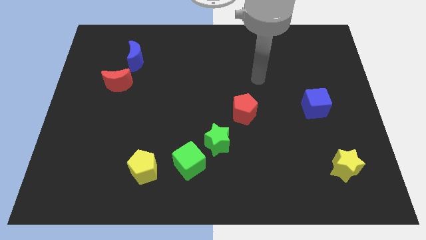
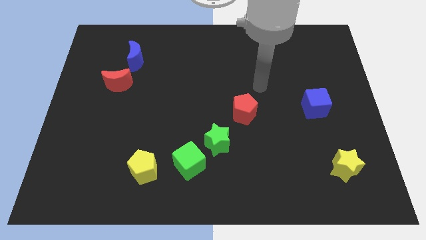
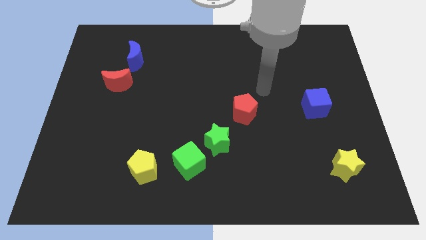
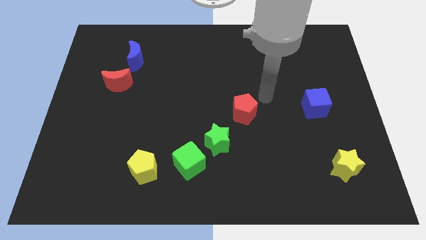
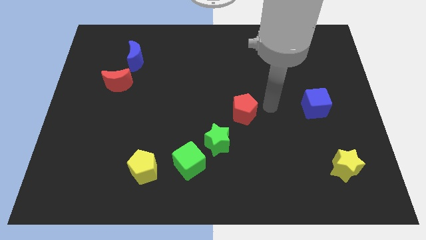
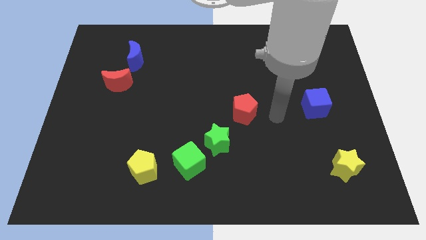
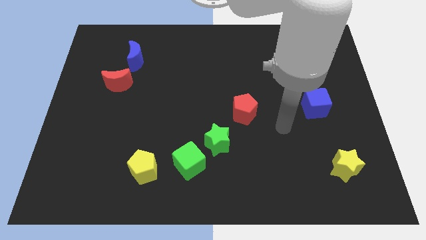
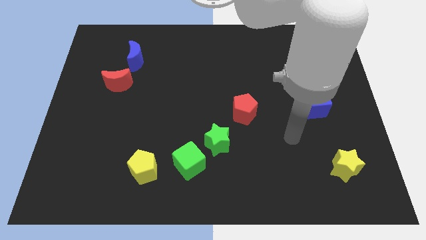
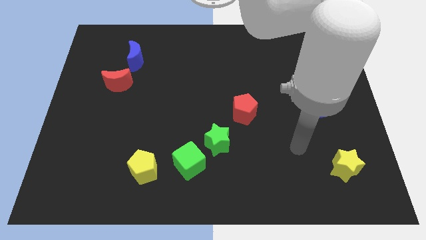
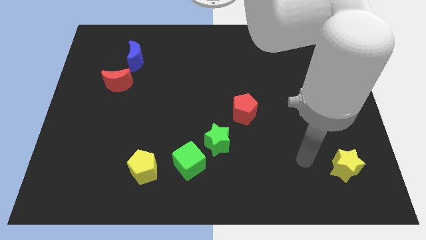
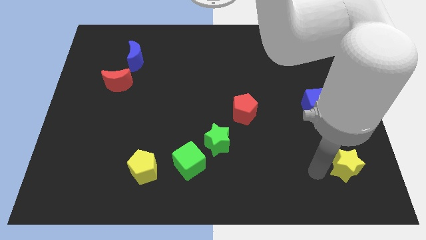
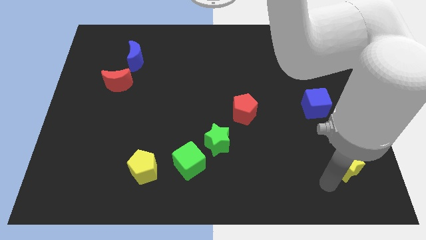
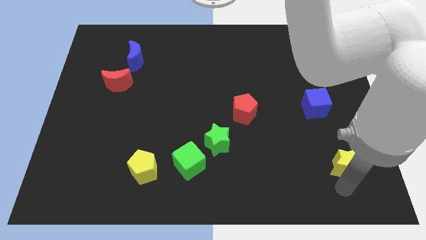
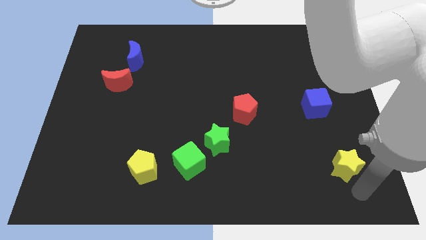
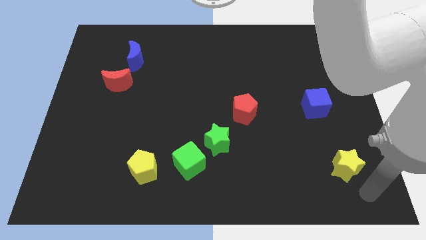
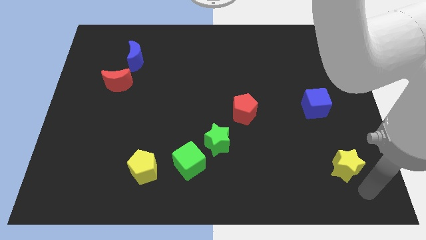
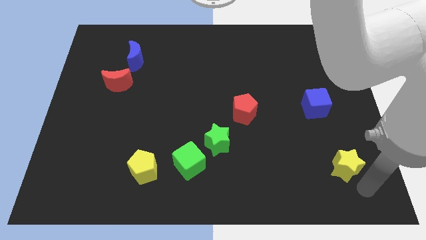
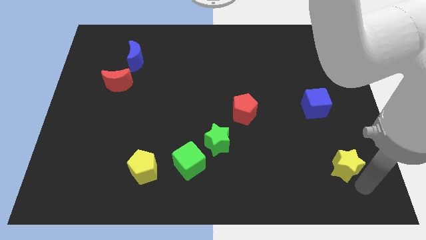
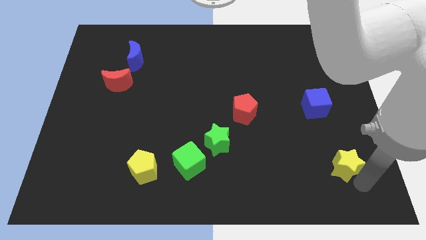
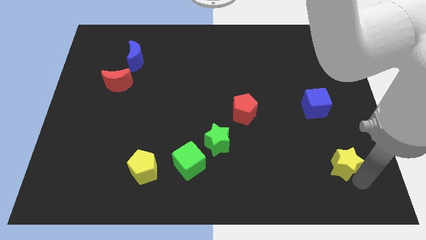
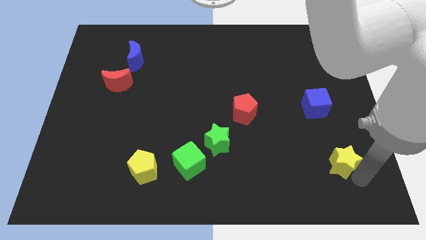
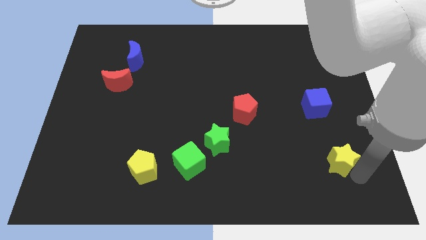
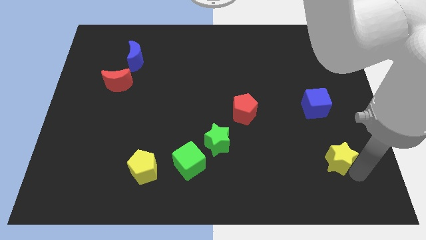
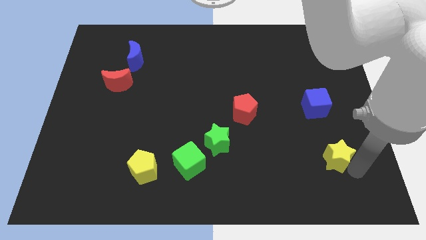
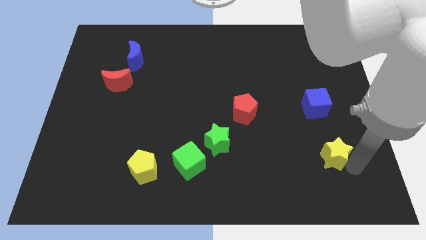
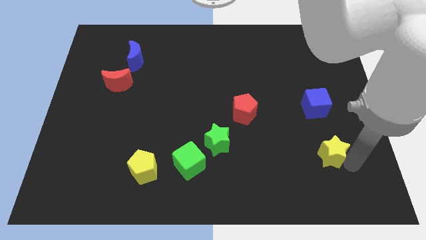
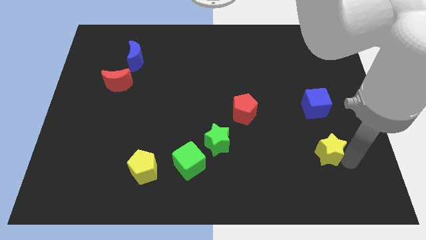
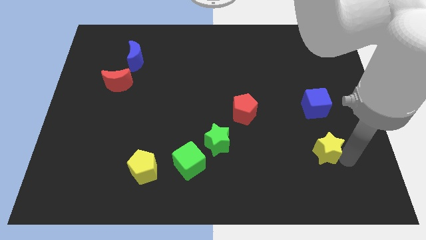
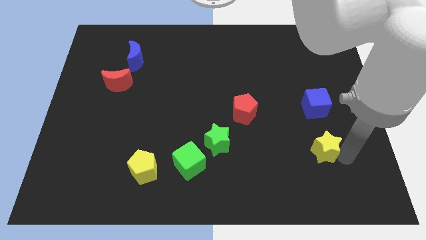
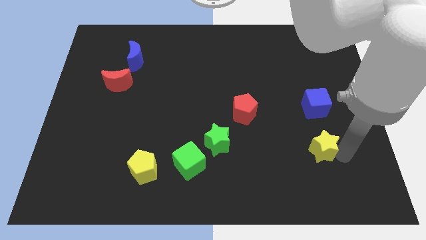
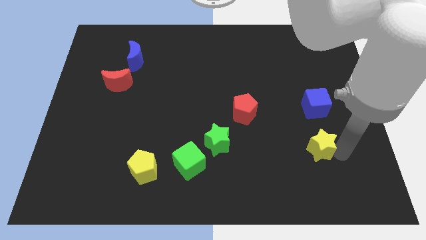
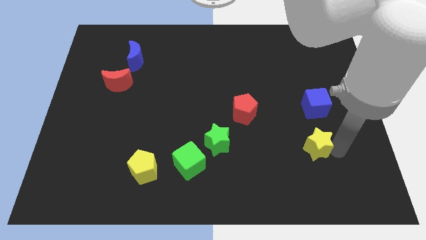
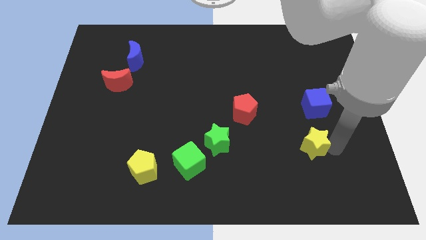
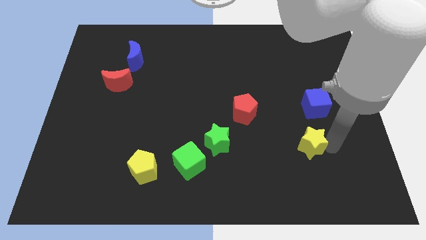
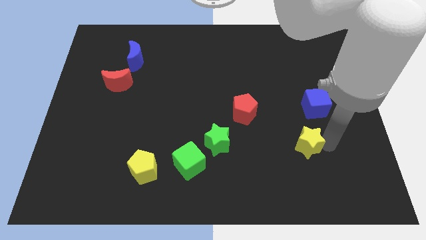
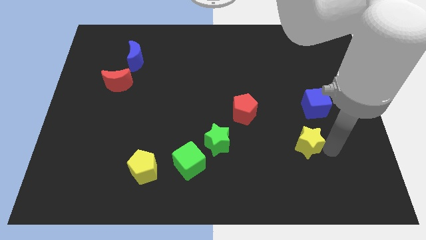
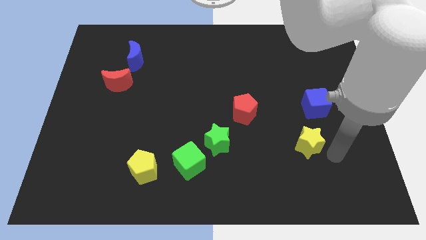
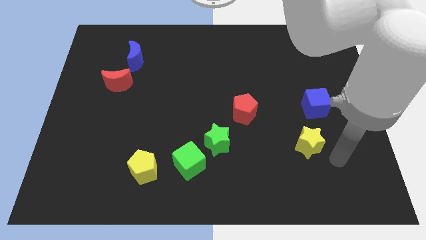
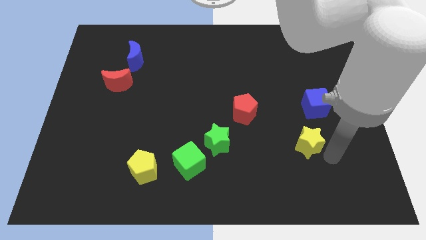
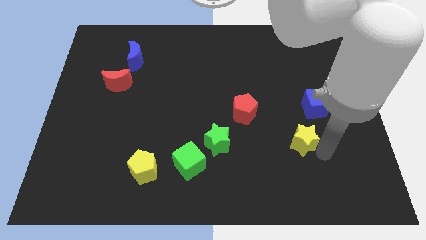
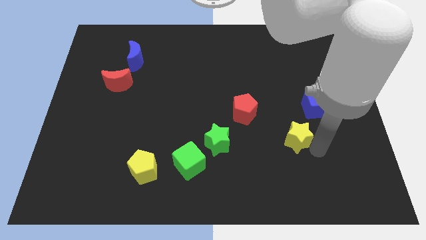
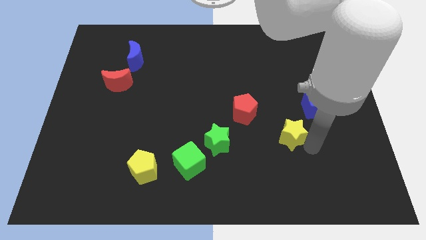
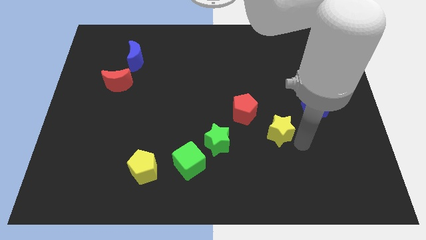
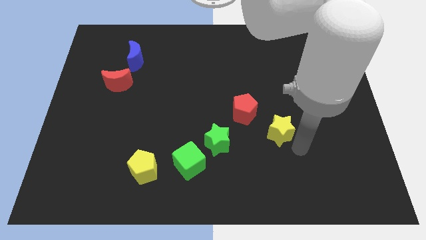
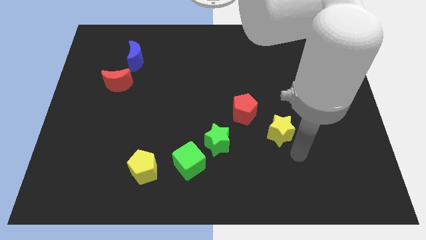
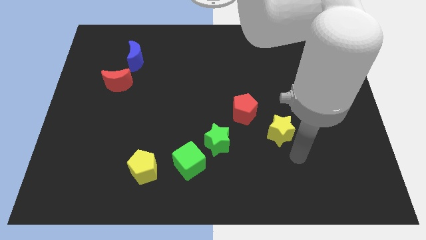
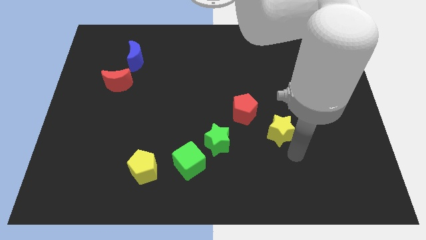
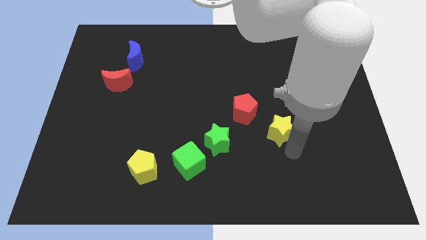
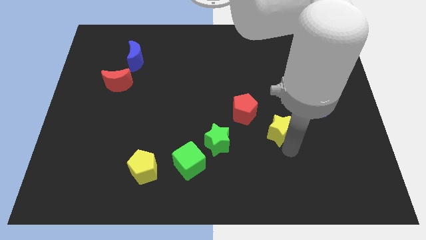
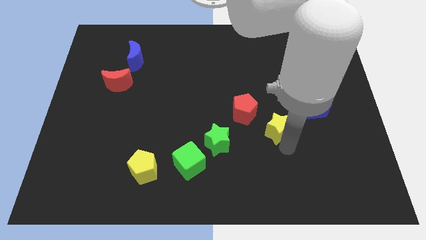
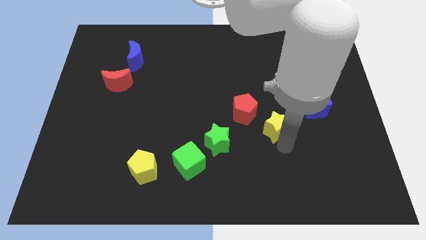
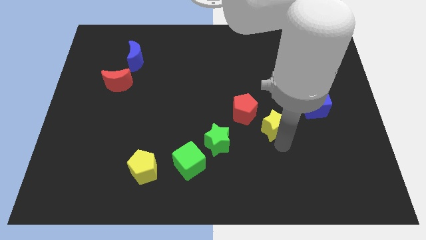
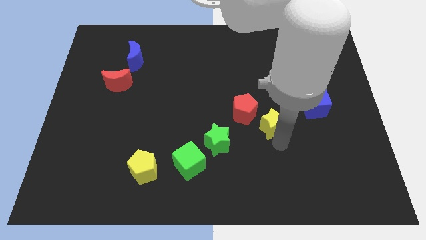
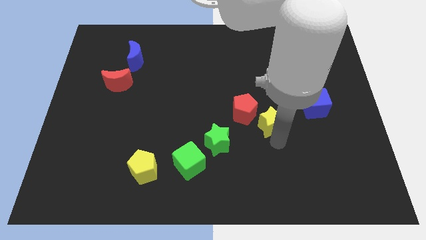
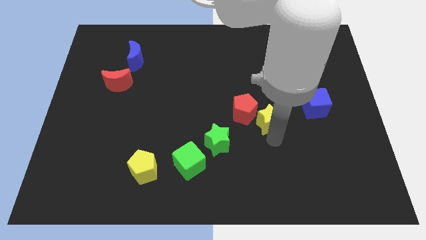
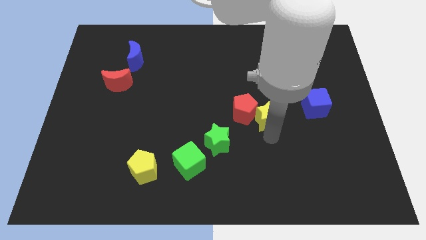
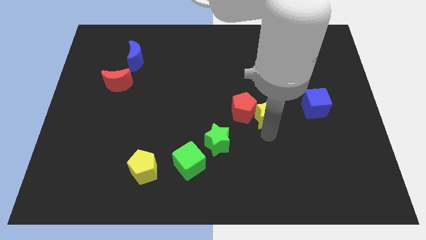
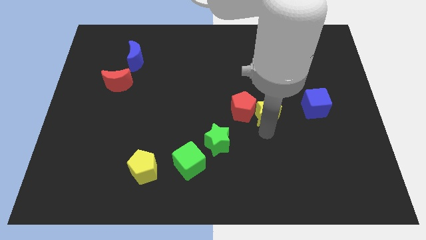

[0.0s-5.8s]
move the yellow star up and then left

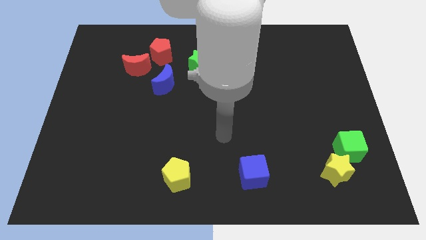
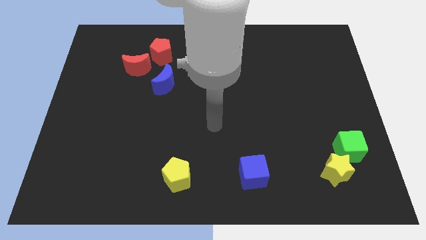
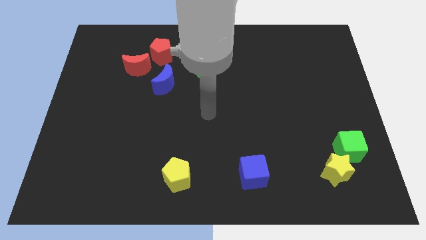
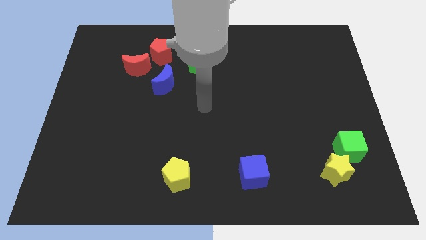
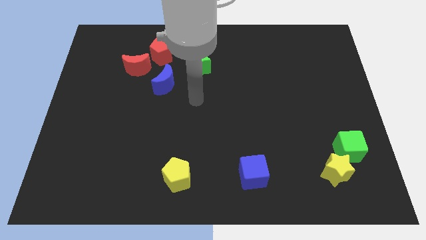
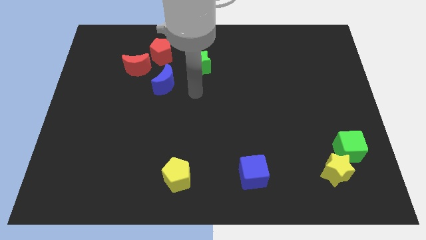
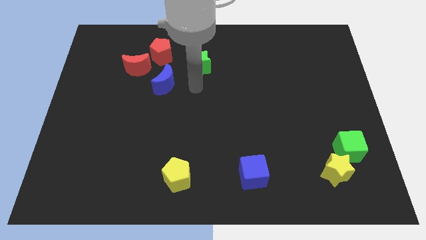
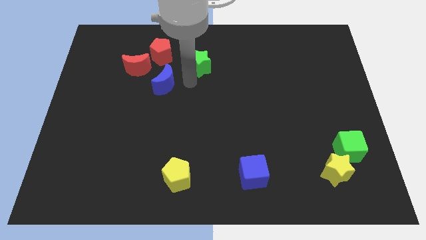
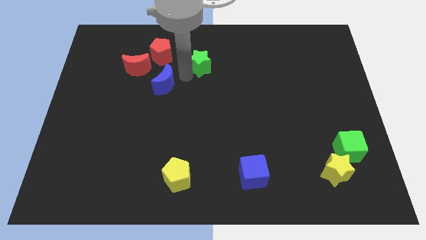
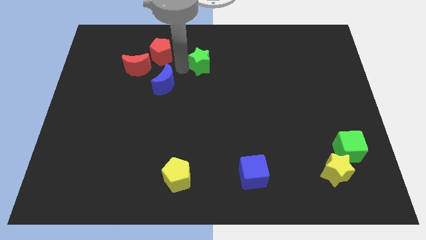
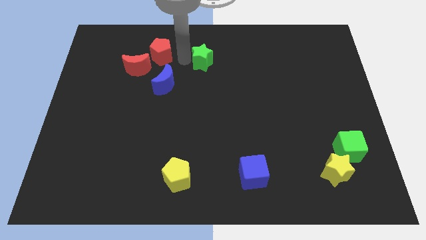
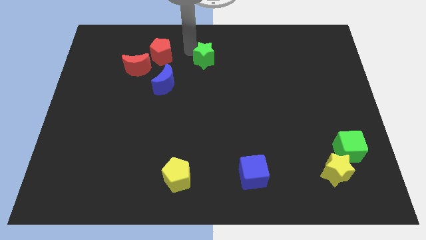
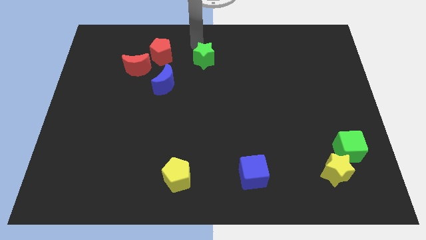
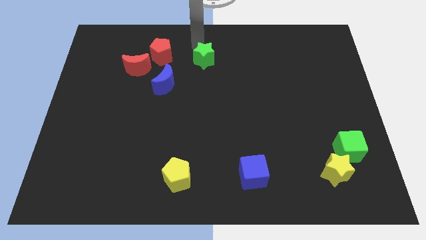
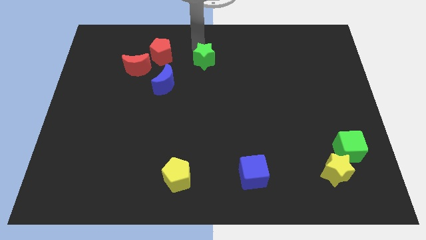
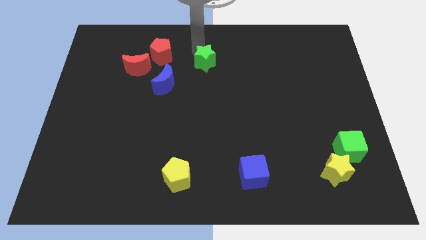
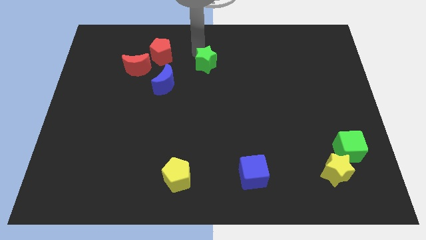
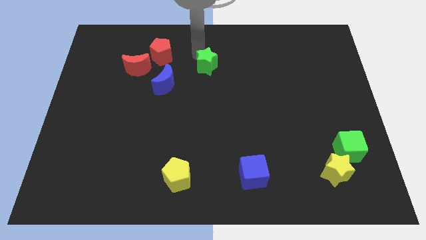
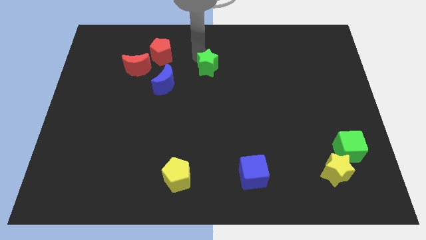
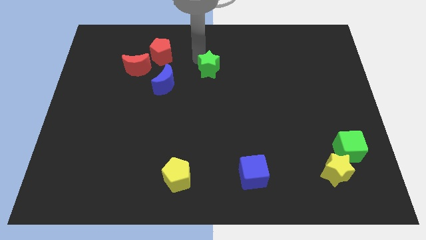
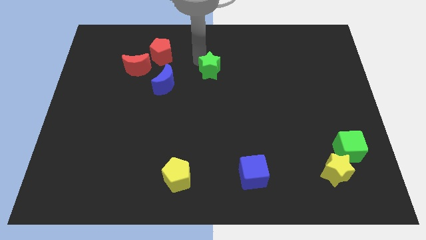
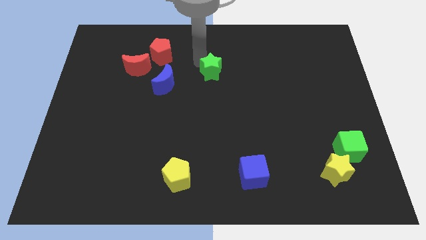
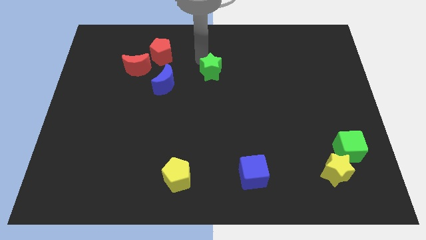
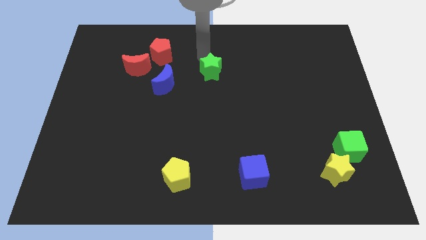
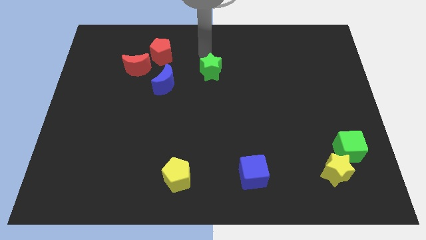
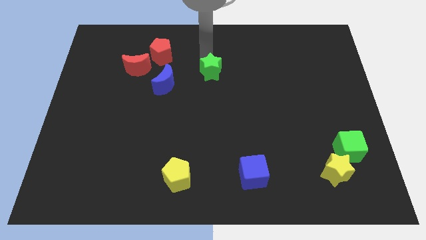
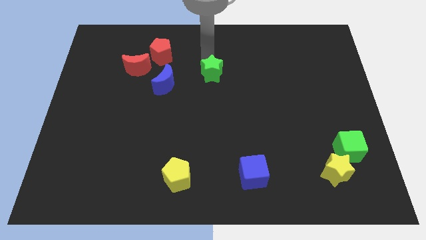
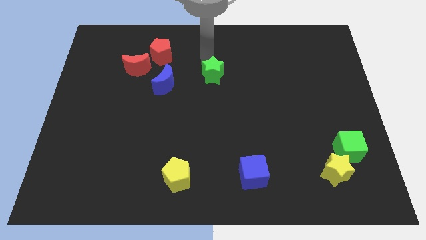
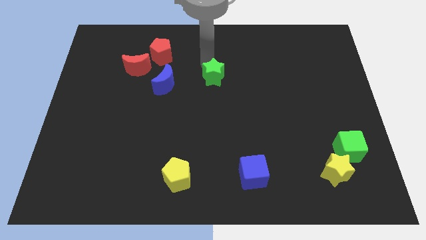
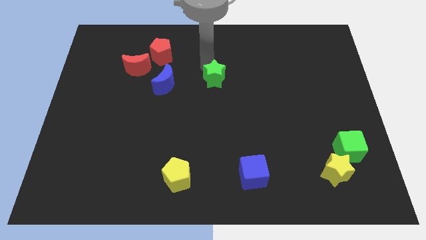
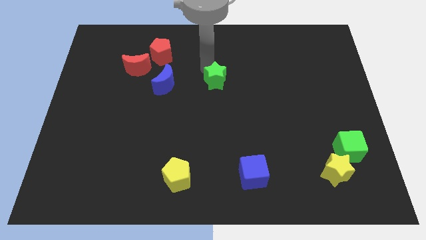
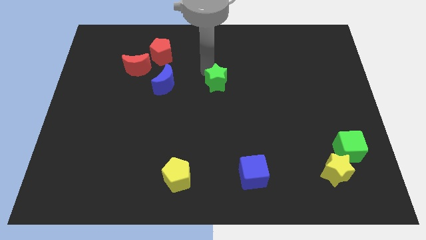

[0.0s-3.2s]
slightly move the green star down and right
